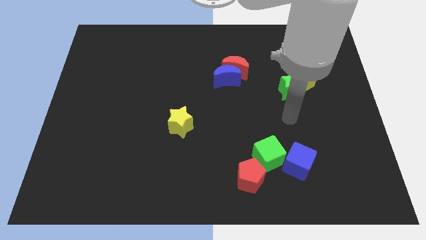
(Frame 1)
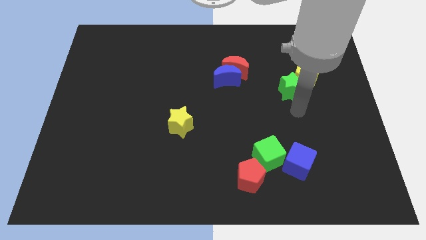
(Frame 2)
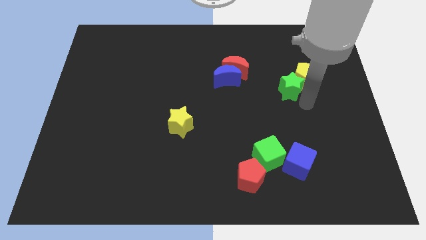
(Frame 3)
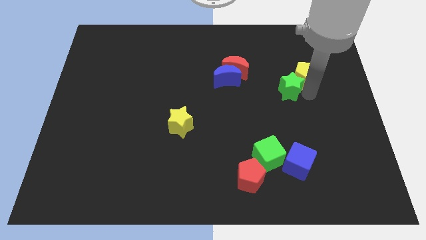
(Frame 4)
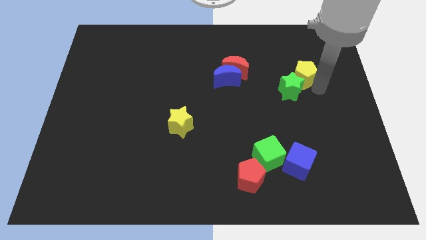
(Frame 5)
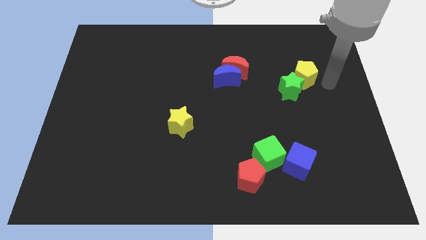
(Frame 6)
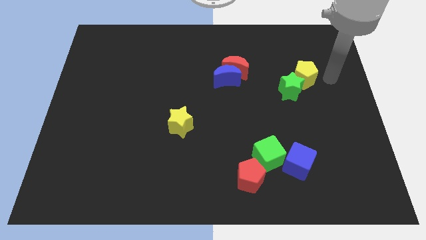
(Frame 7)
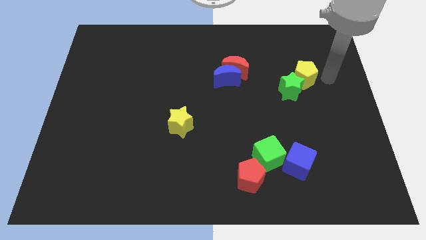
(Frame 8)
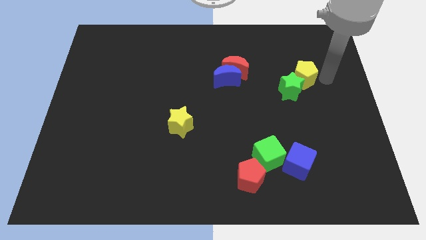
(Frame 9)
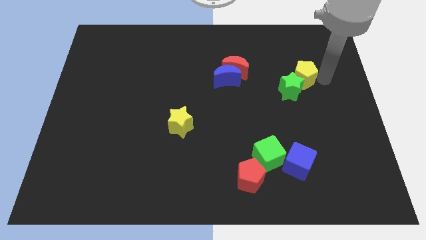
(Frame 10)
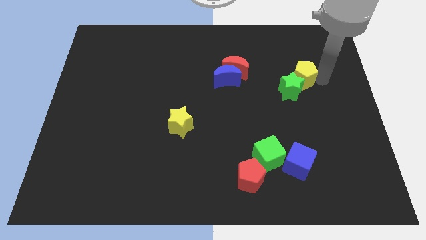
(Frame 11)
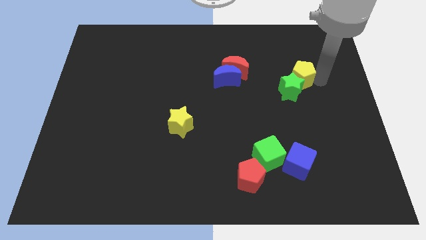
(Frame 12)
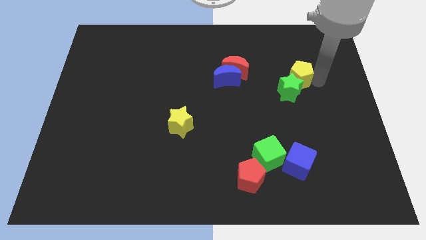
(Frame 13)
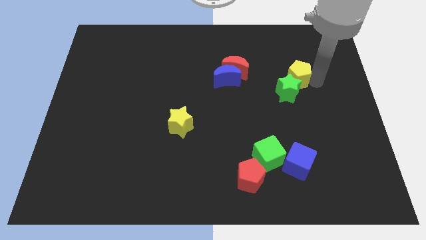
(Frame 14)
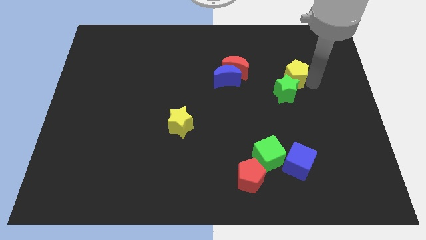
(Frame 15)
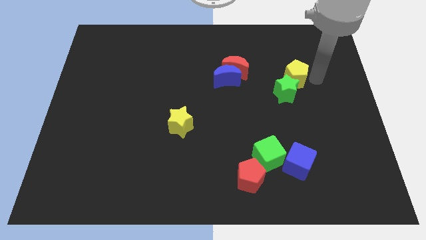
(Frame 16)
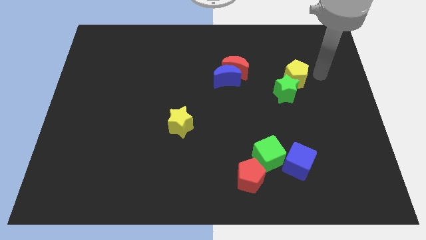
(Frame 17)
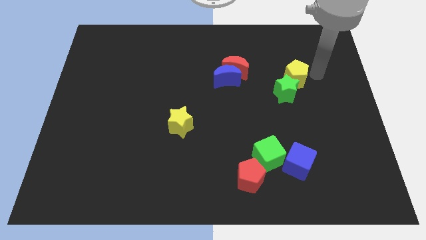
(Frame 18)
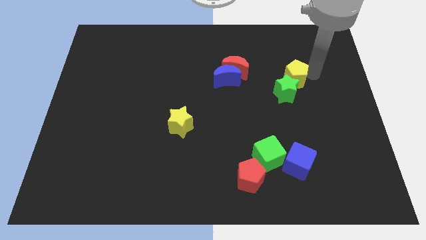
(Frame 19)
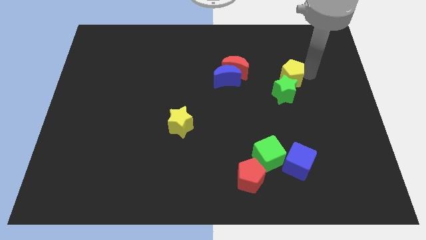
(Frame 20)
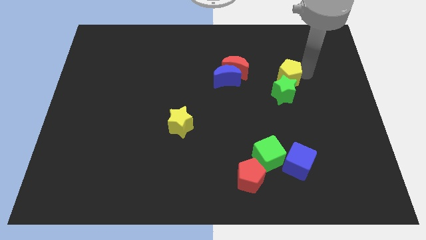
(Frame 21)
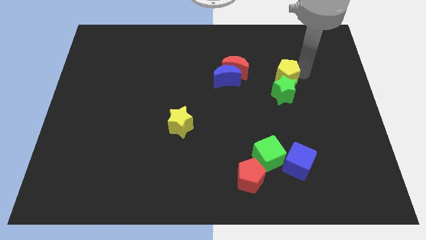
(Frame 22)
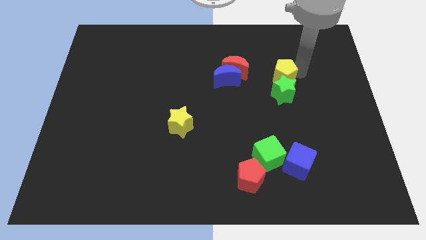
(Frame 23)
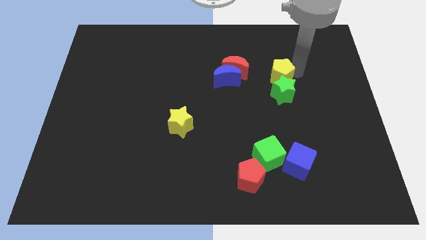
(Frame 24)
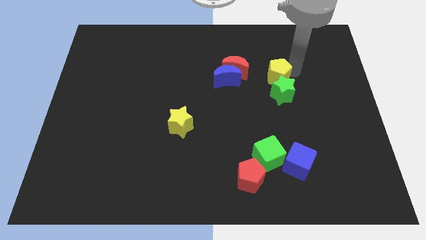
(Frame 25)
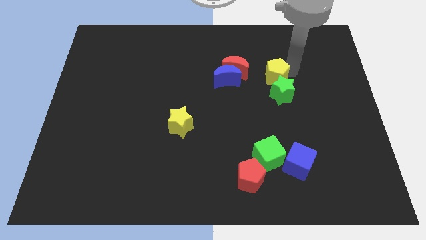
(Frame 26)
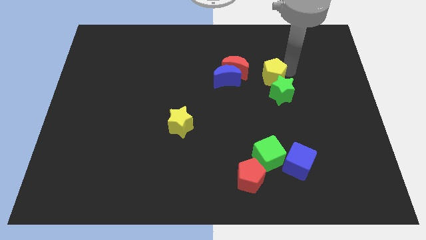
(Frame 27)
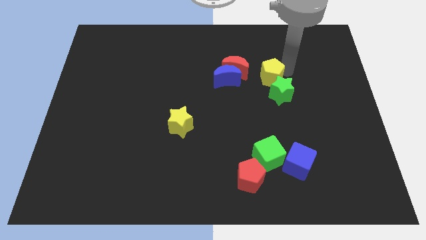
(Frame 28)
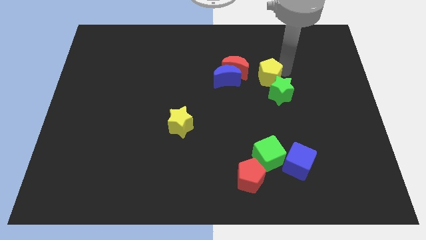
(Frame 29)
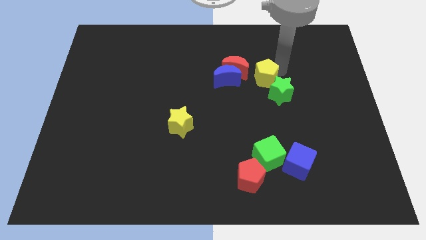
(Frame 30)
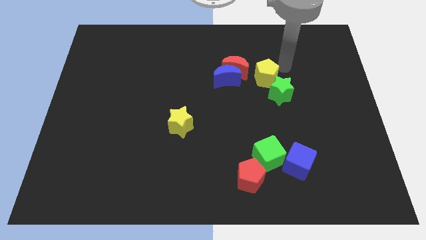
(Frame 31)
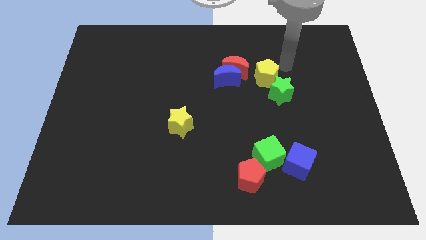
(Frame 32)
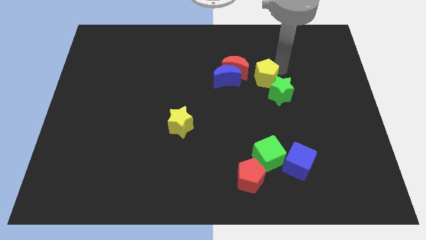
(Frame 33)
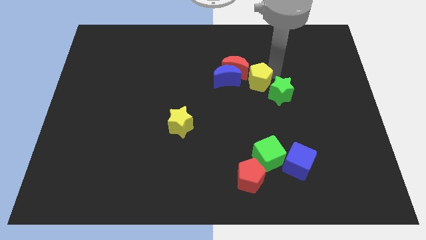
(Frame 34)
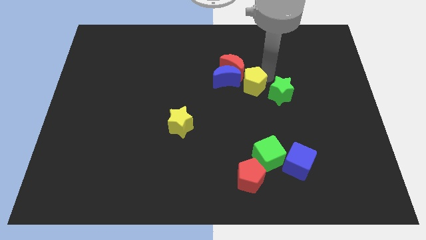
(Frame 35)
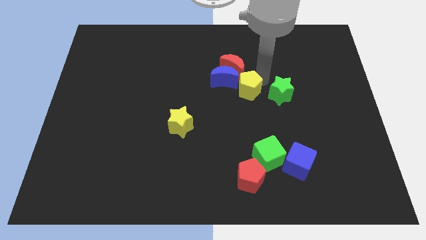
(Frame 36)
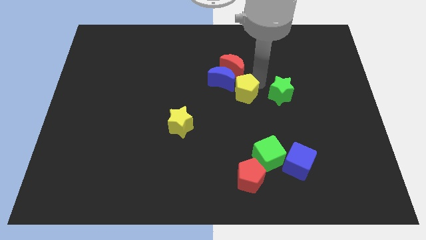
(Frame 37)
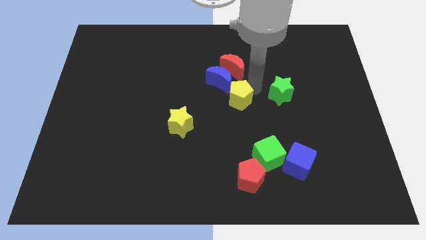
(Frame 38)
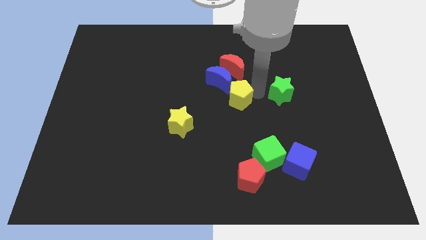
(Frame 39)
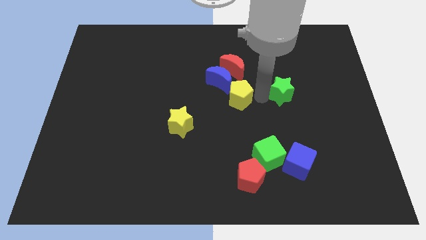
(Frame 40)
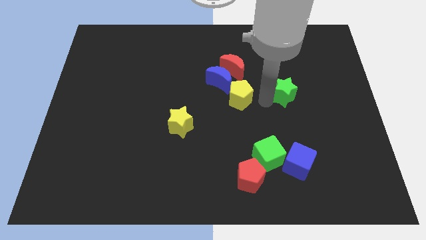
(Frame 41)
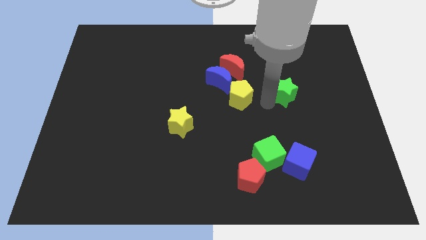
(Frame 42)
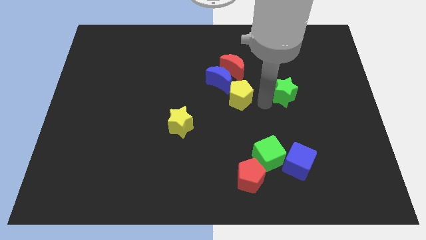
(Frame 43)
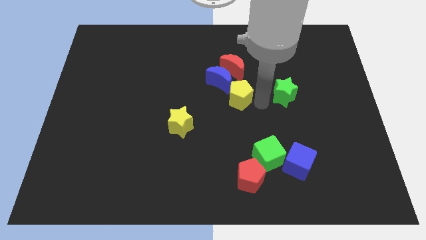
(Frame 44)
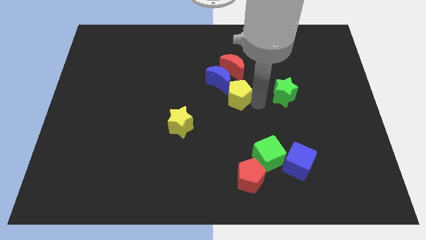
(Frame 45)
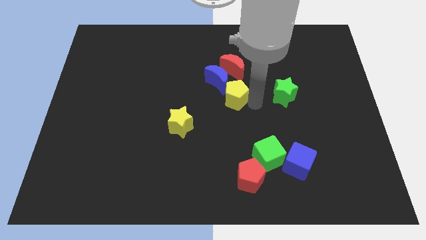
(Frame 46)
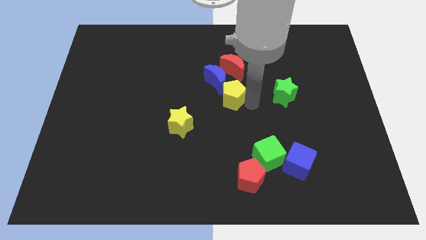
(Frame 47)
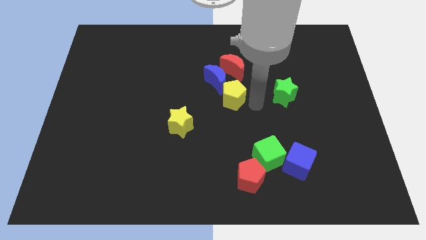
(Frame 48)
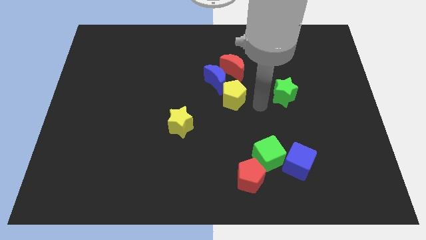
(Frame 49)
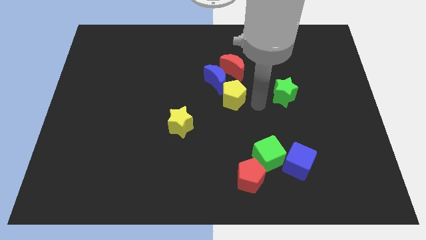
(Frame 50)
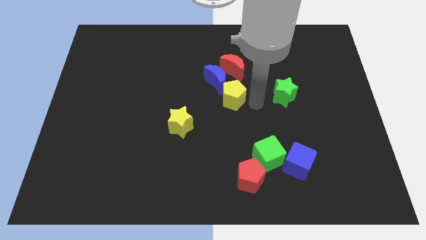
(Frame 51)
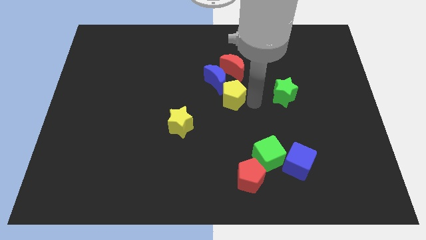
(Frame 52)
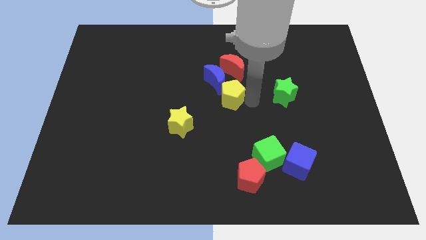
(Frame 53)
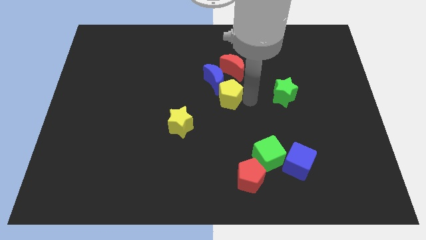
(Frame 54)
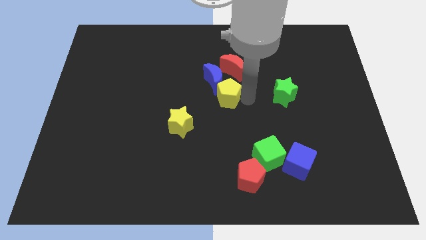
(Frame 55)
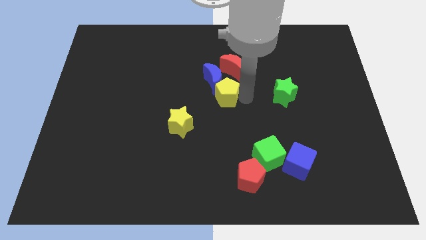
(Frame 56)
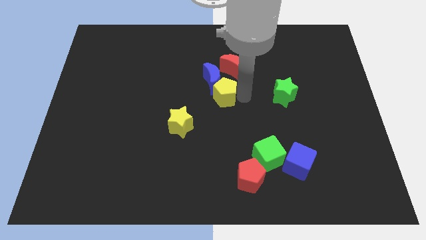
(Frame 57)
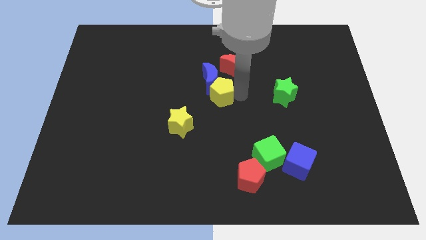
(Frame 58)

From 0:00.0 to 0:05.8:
move the yellow pentagon to the left

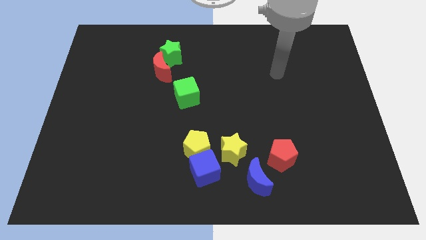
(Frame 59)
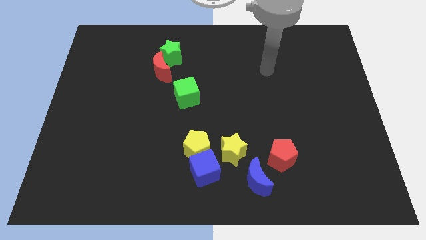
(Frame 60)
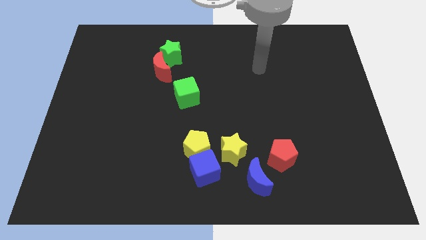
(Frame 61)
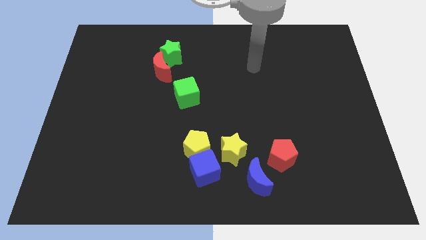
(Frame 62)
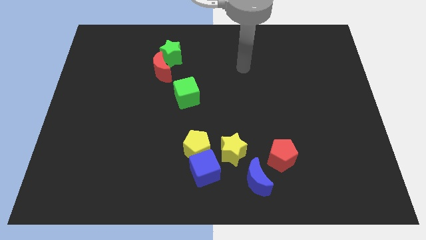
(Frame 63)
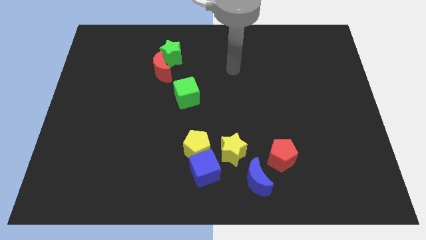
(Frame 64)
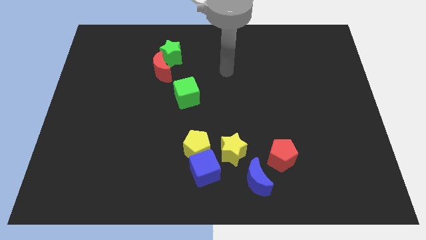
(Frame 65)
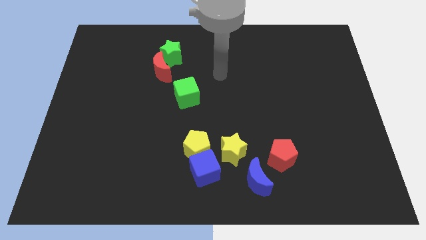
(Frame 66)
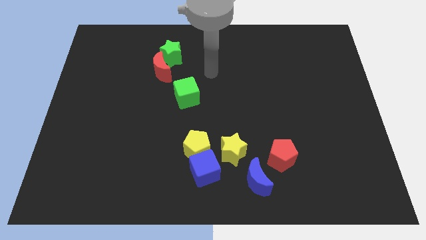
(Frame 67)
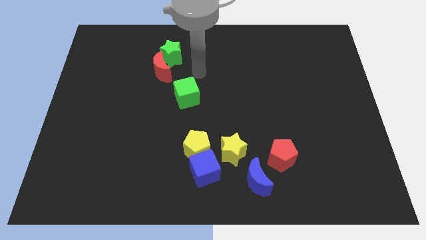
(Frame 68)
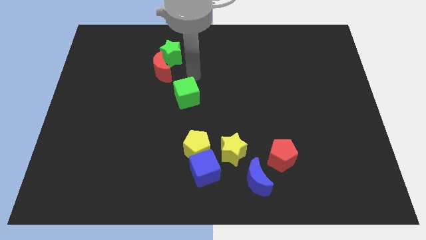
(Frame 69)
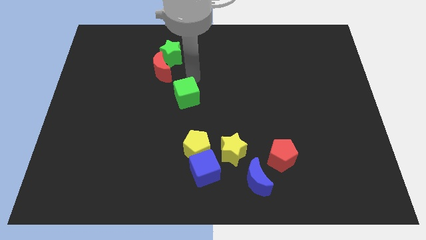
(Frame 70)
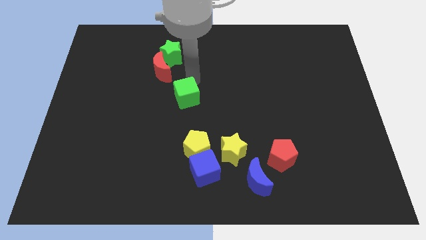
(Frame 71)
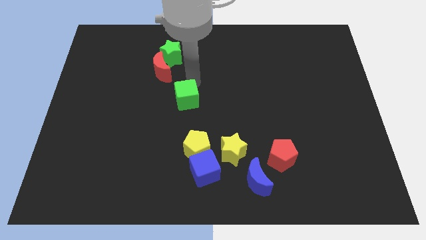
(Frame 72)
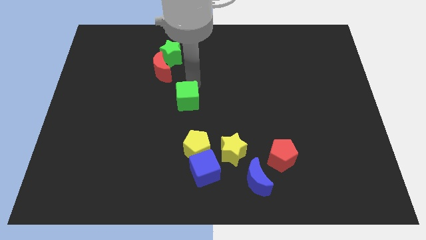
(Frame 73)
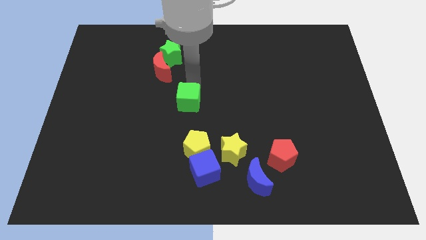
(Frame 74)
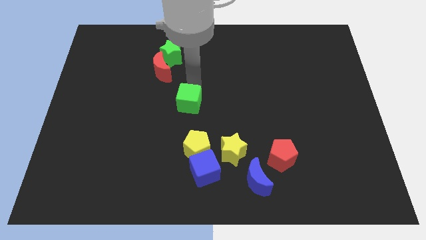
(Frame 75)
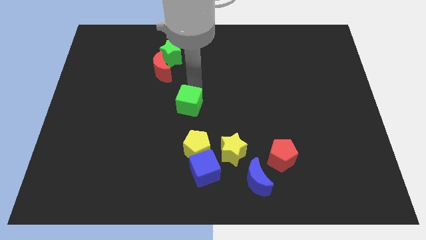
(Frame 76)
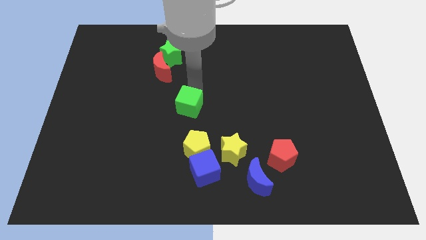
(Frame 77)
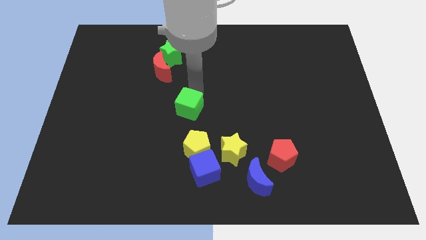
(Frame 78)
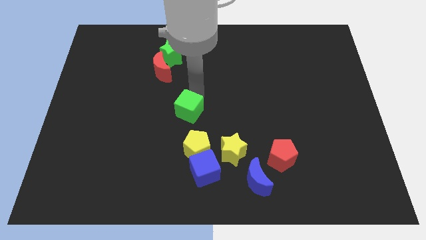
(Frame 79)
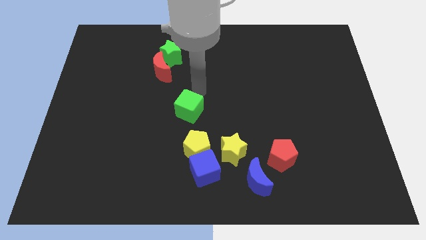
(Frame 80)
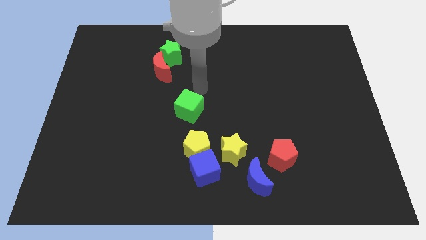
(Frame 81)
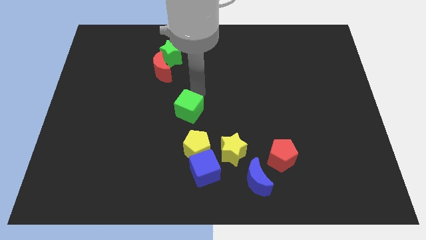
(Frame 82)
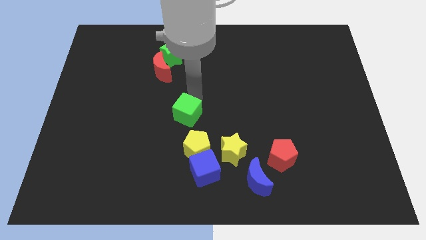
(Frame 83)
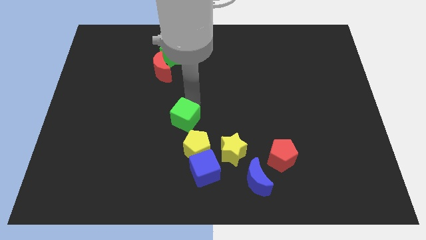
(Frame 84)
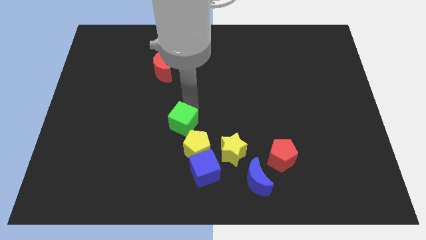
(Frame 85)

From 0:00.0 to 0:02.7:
slightly slide the green cube downwards
